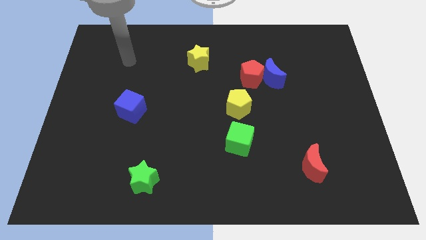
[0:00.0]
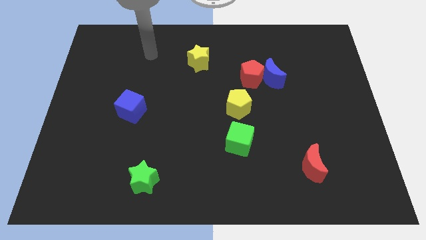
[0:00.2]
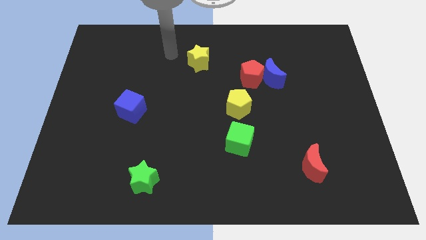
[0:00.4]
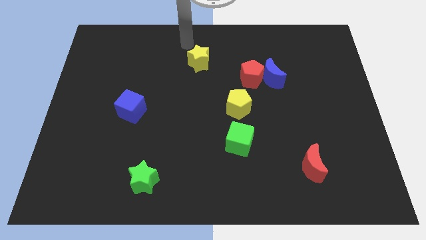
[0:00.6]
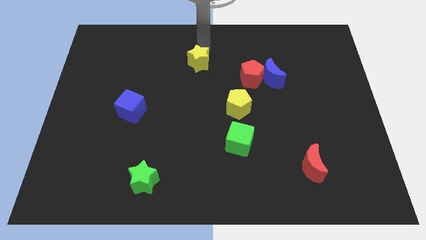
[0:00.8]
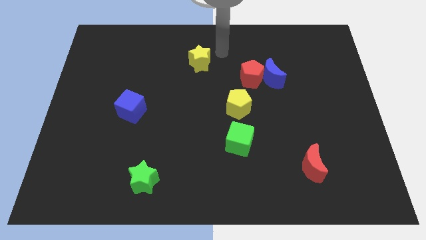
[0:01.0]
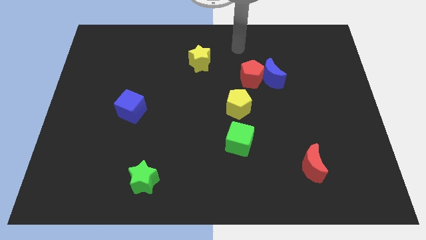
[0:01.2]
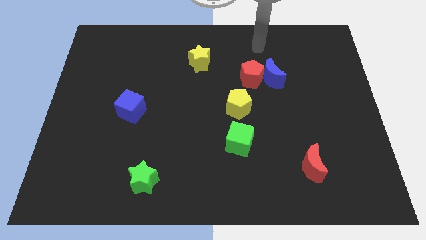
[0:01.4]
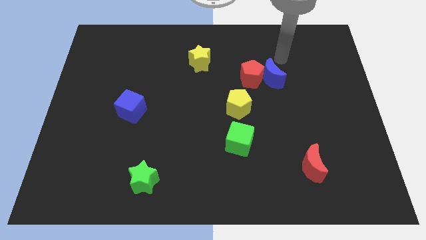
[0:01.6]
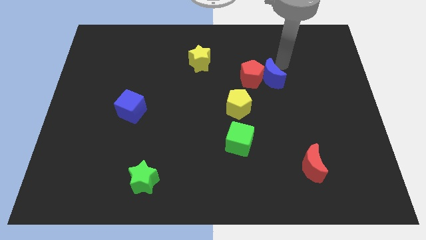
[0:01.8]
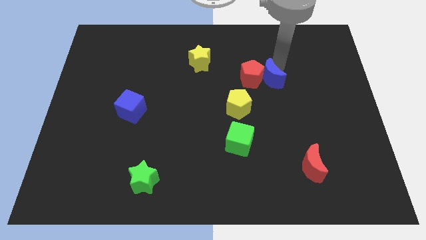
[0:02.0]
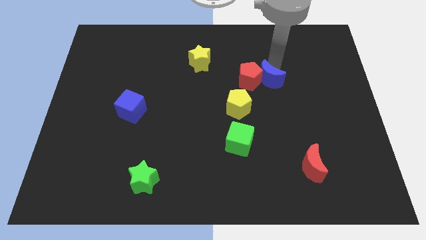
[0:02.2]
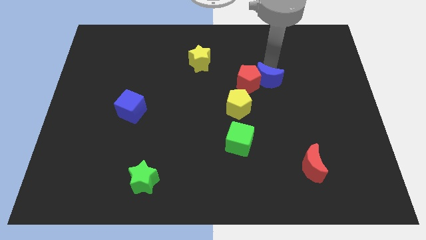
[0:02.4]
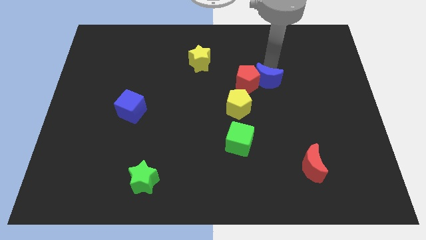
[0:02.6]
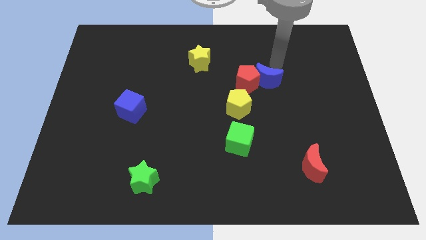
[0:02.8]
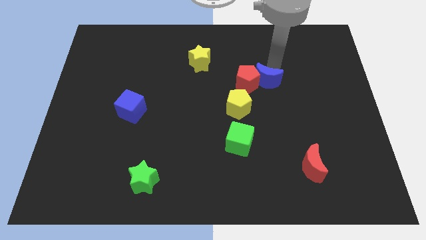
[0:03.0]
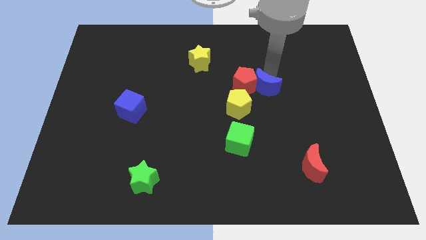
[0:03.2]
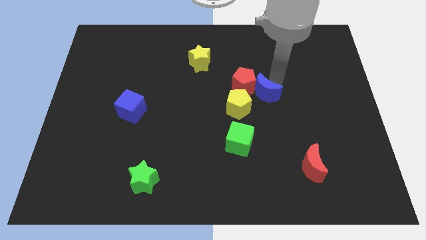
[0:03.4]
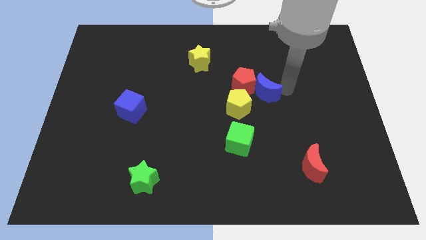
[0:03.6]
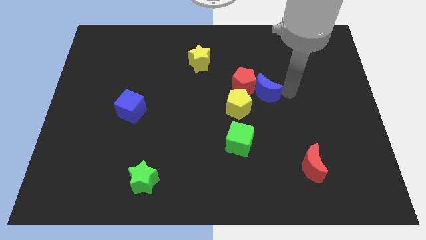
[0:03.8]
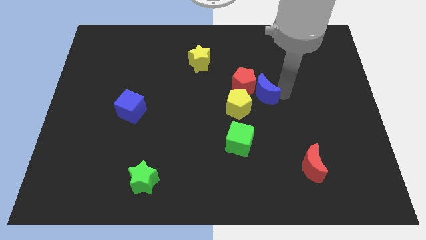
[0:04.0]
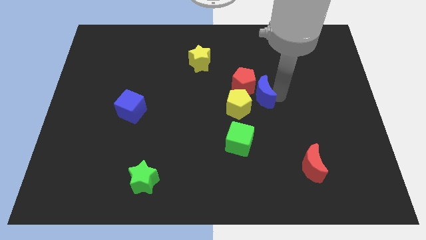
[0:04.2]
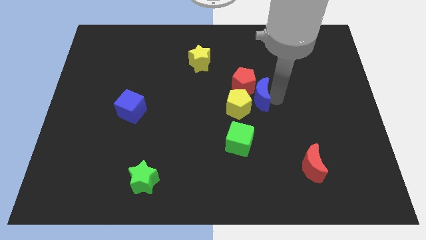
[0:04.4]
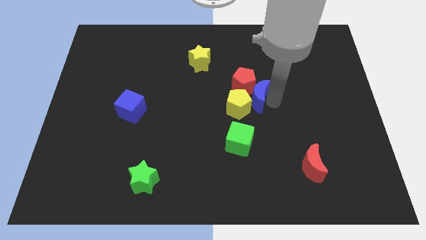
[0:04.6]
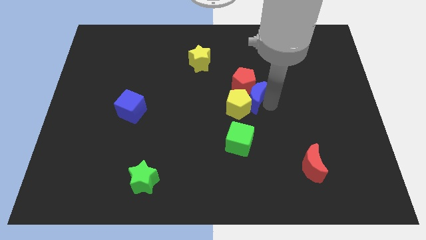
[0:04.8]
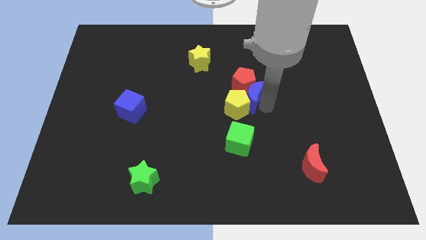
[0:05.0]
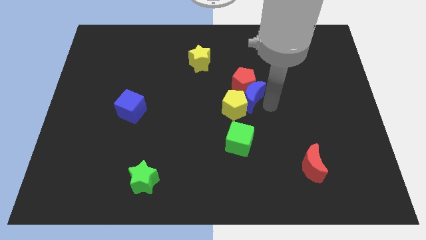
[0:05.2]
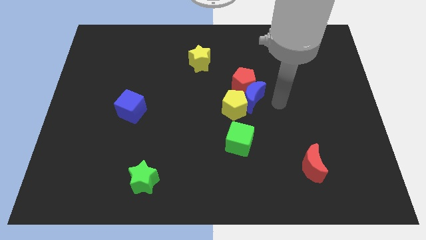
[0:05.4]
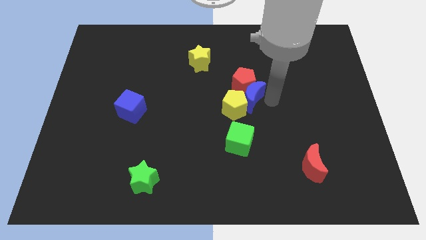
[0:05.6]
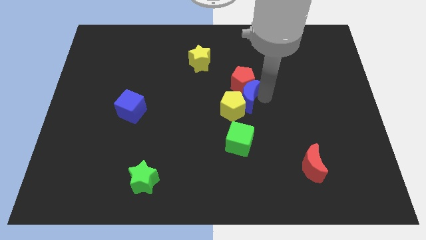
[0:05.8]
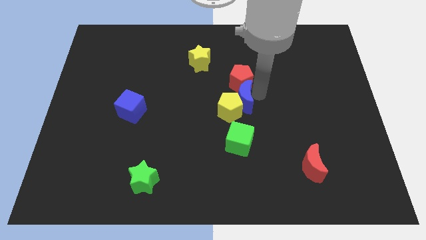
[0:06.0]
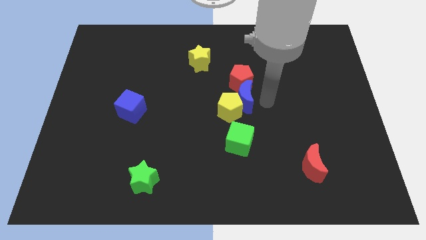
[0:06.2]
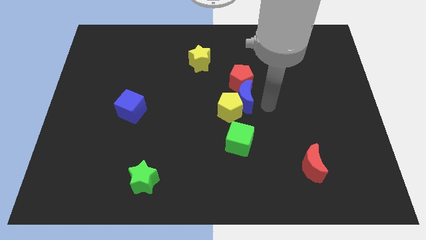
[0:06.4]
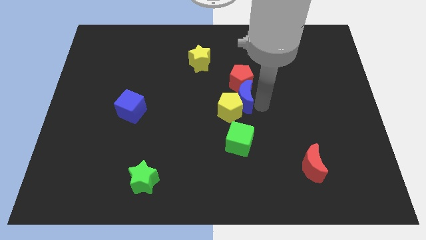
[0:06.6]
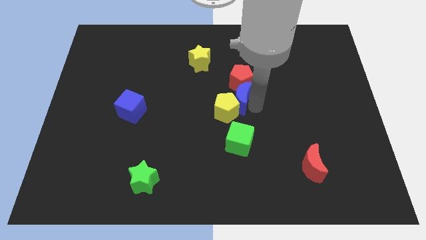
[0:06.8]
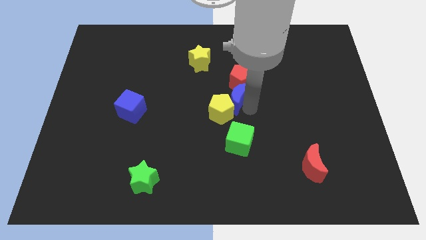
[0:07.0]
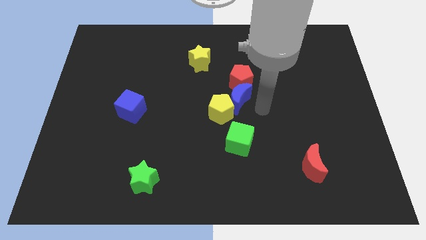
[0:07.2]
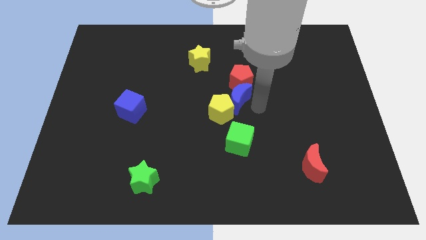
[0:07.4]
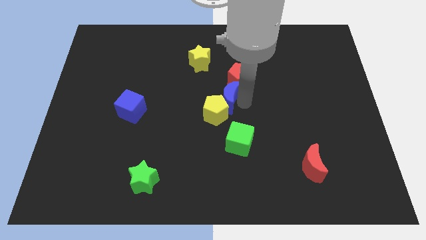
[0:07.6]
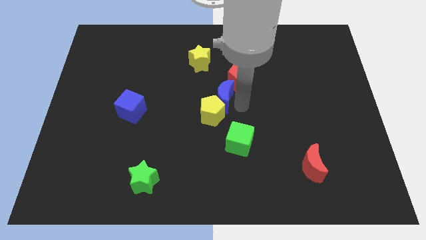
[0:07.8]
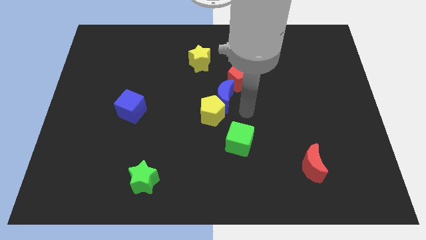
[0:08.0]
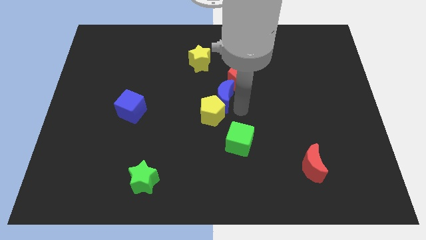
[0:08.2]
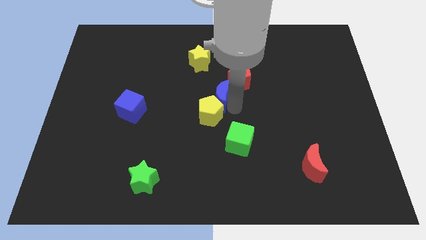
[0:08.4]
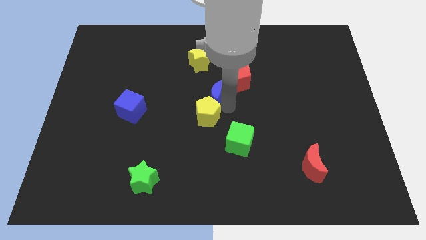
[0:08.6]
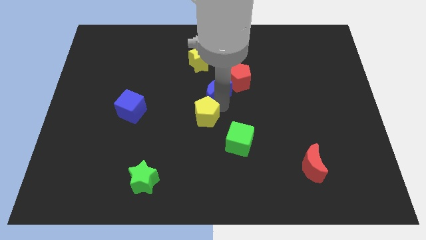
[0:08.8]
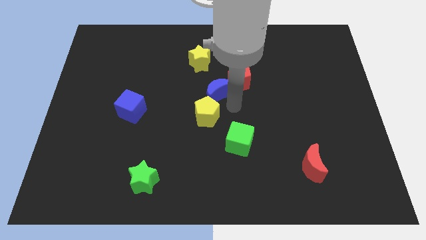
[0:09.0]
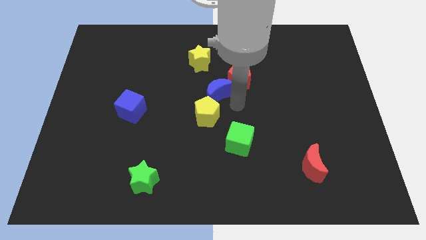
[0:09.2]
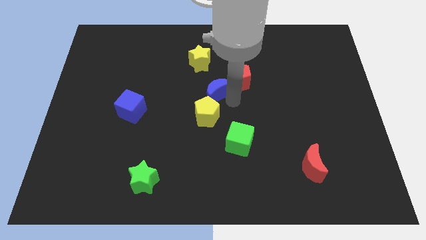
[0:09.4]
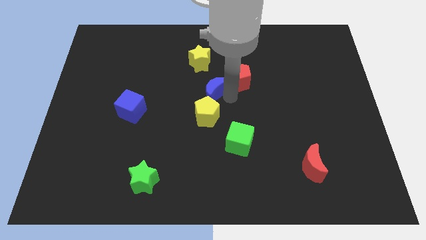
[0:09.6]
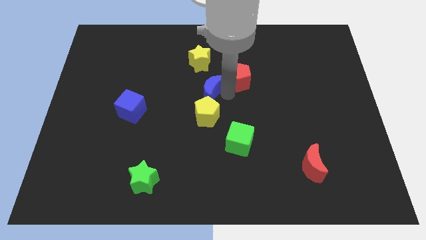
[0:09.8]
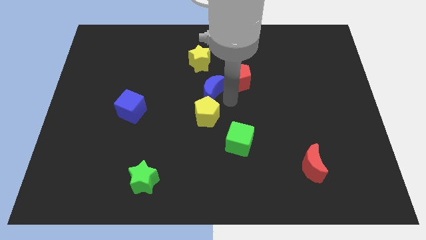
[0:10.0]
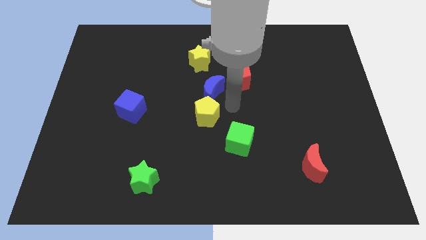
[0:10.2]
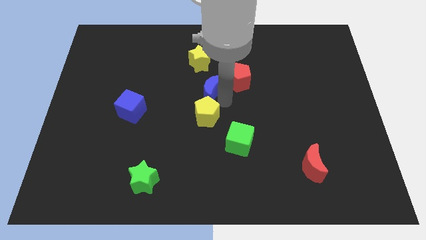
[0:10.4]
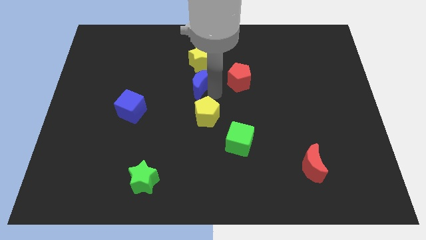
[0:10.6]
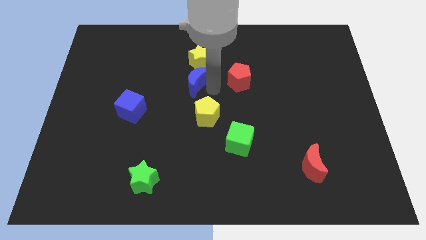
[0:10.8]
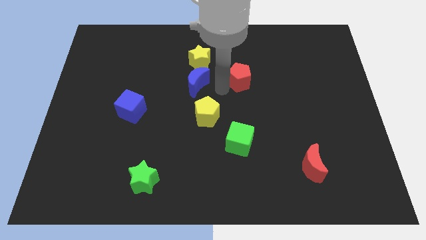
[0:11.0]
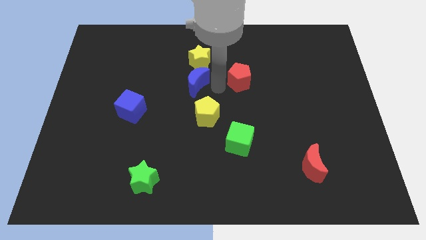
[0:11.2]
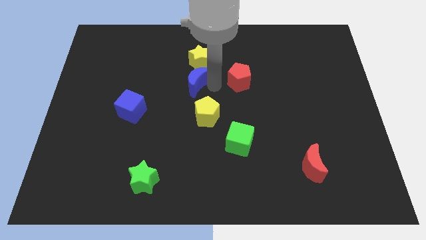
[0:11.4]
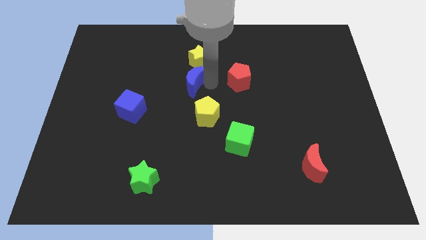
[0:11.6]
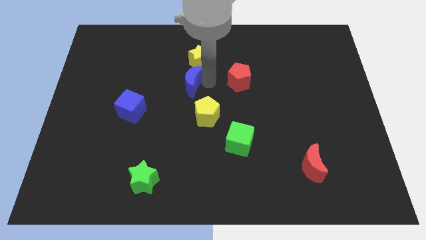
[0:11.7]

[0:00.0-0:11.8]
move the blue moon left

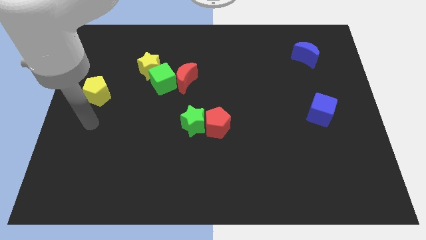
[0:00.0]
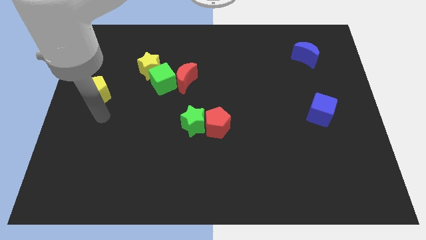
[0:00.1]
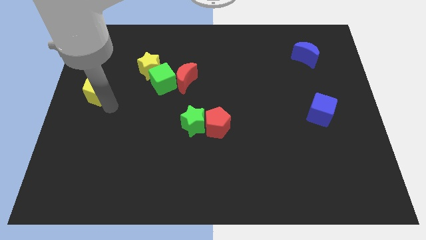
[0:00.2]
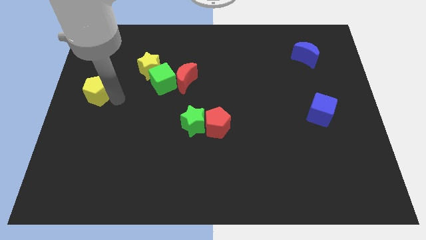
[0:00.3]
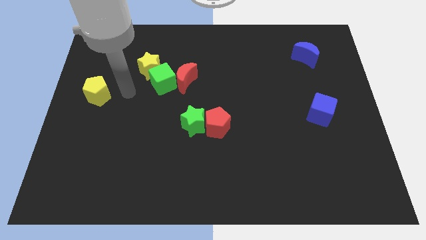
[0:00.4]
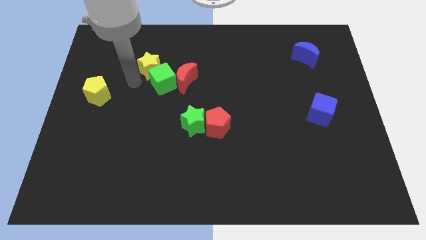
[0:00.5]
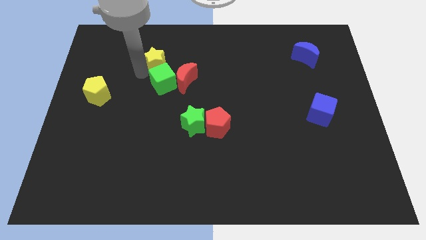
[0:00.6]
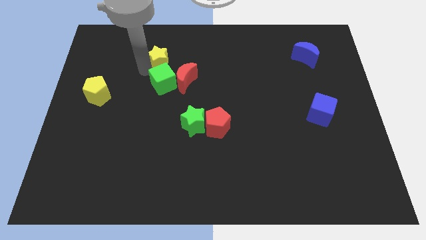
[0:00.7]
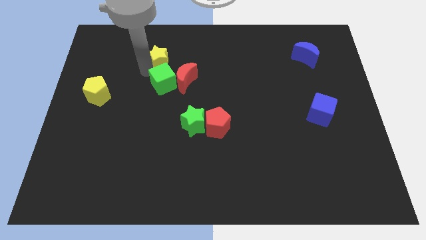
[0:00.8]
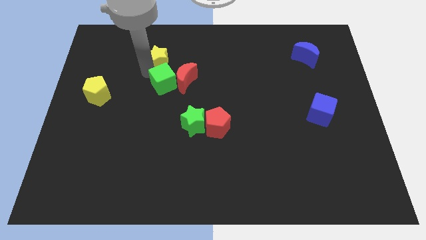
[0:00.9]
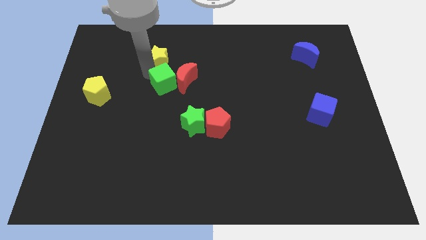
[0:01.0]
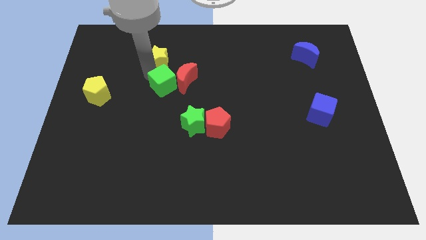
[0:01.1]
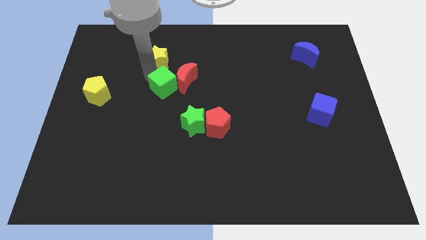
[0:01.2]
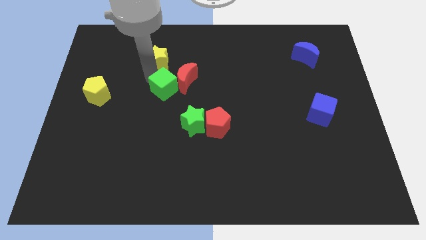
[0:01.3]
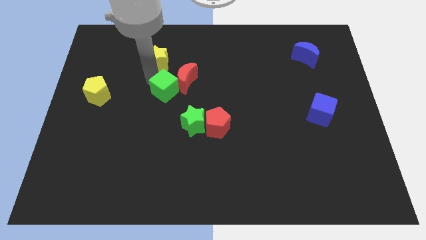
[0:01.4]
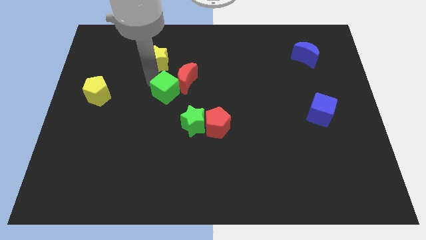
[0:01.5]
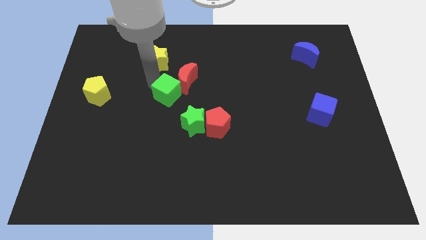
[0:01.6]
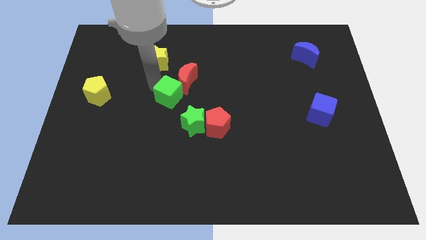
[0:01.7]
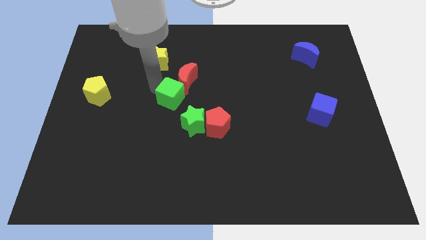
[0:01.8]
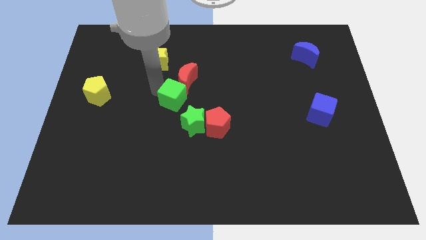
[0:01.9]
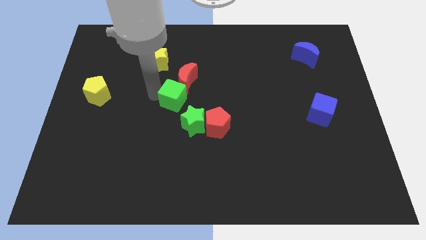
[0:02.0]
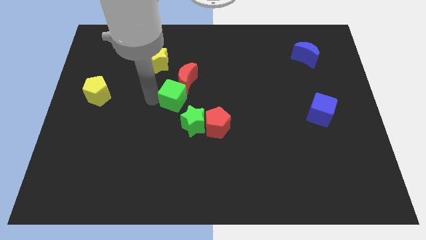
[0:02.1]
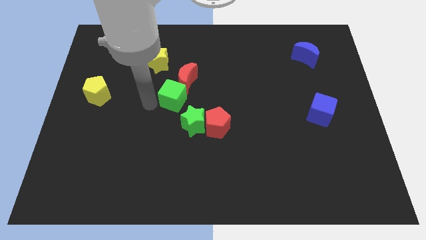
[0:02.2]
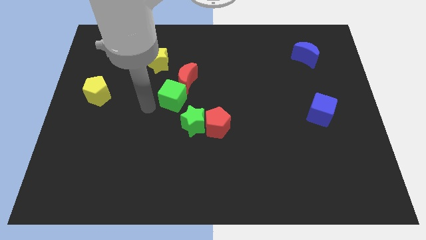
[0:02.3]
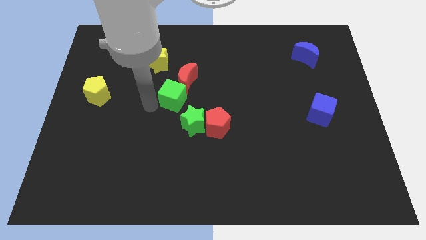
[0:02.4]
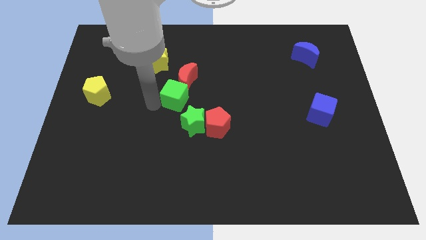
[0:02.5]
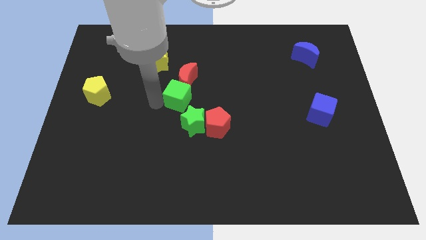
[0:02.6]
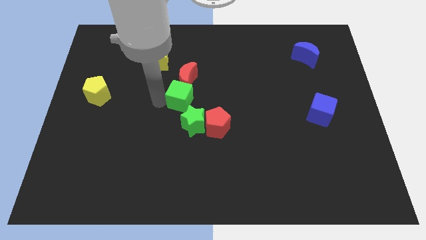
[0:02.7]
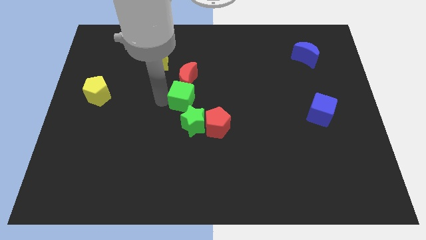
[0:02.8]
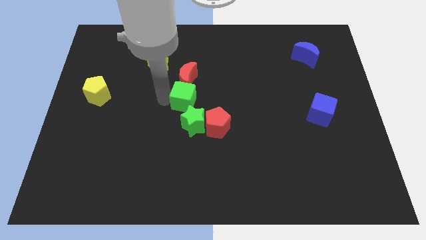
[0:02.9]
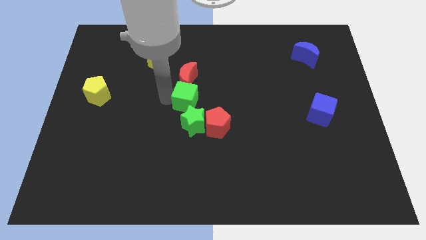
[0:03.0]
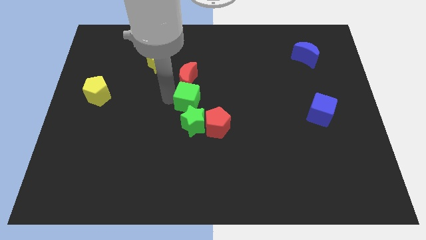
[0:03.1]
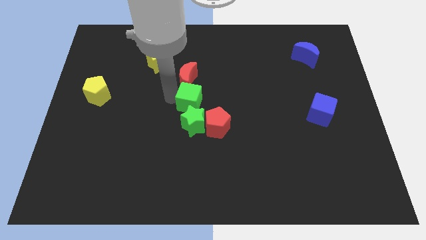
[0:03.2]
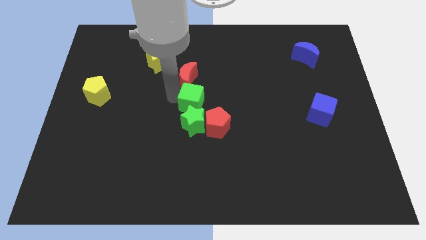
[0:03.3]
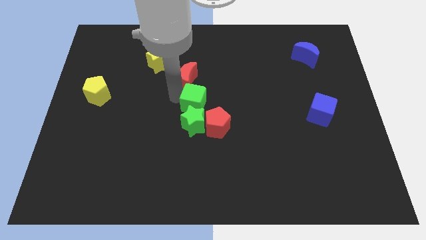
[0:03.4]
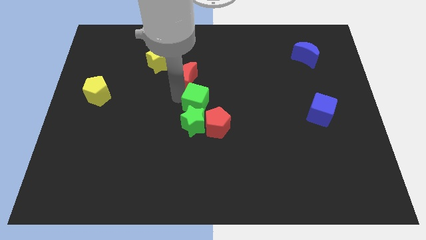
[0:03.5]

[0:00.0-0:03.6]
slightly move the green cube to the right
